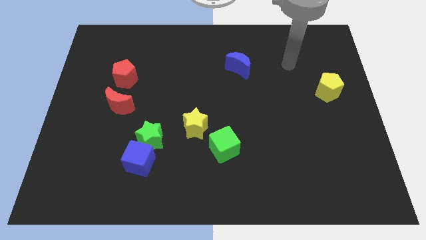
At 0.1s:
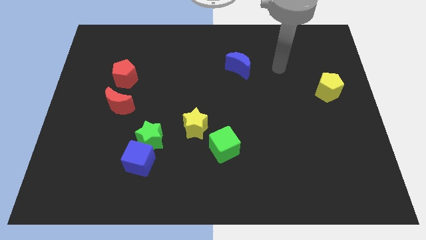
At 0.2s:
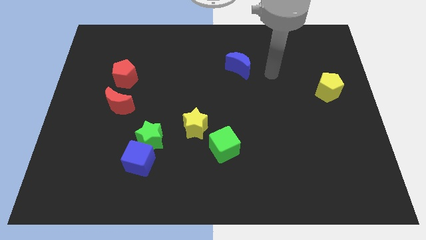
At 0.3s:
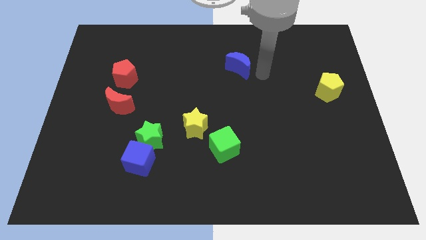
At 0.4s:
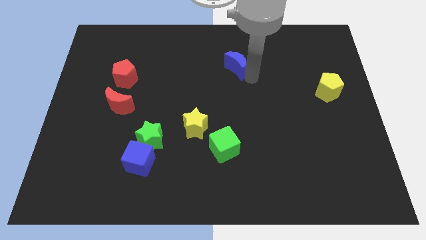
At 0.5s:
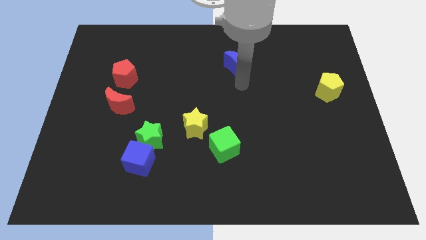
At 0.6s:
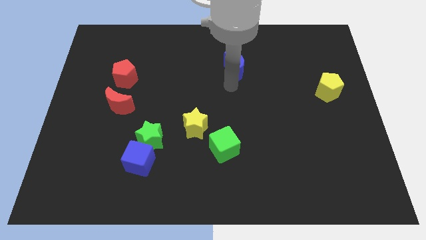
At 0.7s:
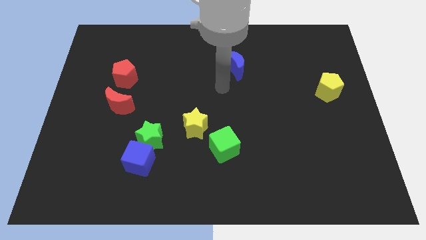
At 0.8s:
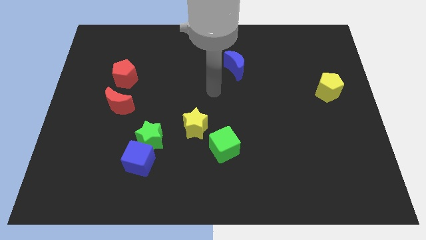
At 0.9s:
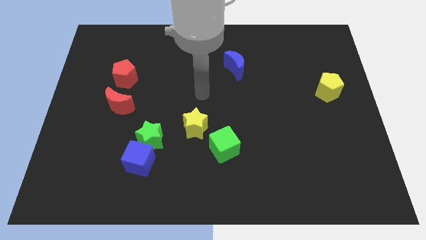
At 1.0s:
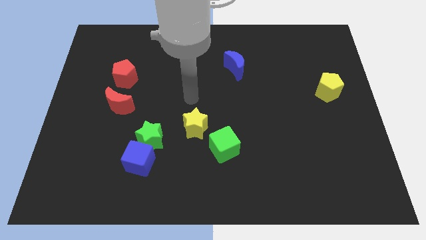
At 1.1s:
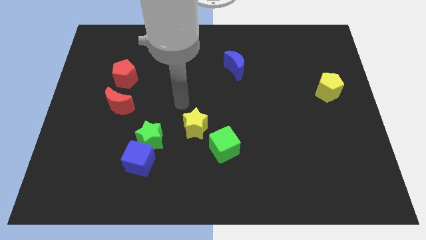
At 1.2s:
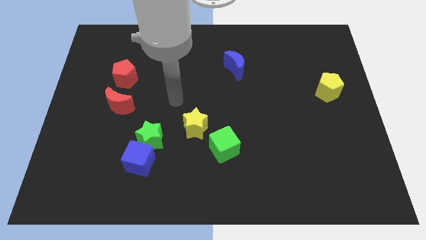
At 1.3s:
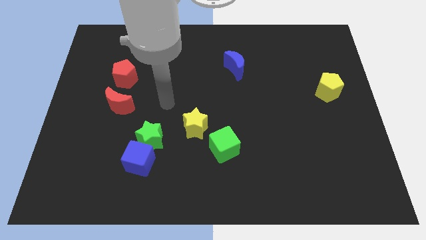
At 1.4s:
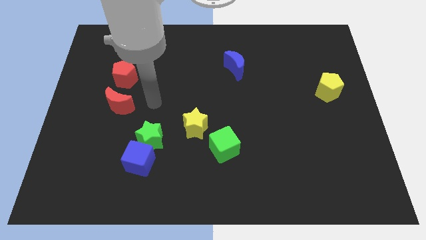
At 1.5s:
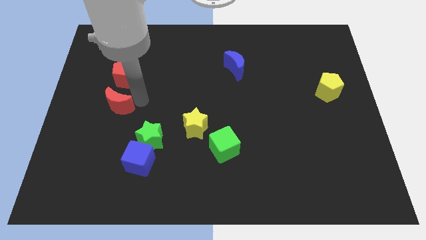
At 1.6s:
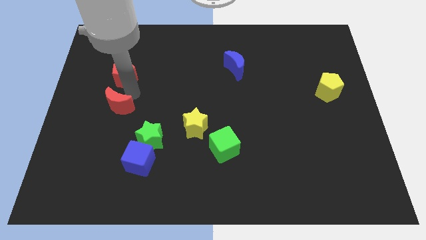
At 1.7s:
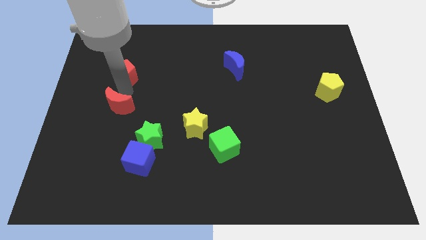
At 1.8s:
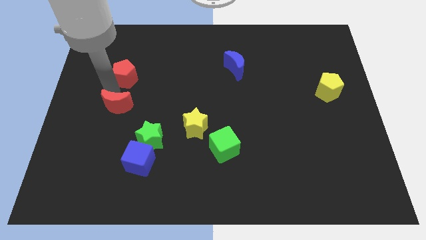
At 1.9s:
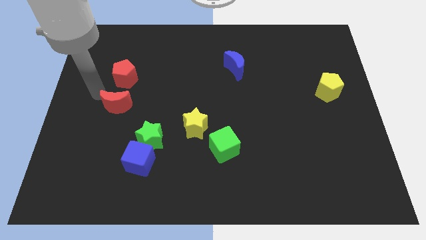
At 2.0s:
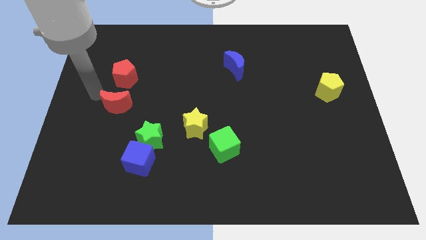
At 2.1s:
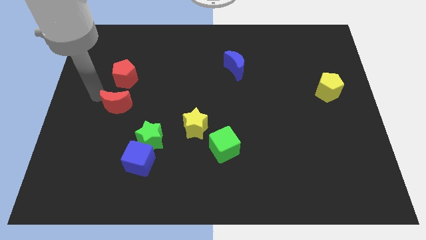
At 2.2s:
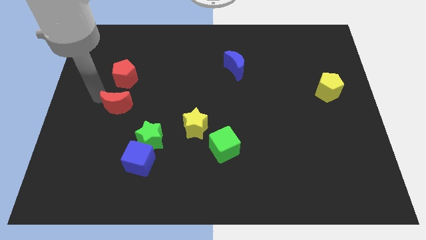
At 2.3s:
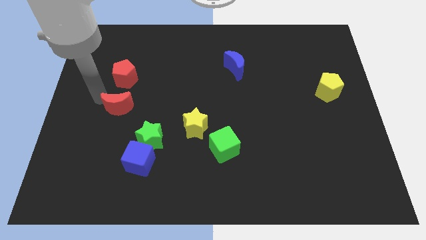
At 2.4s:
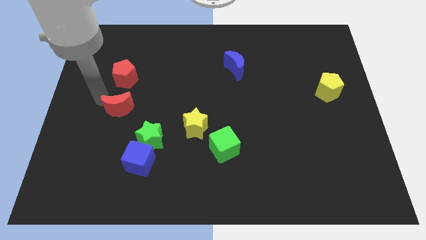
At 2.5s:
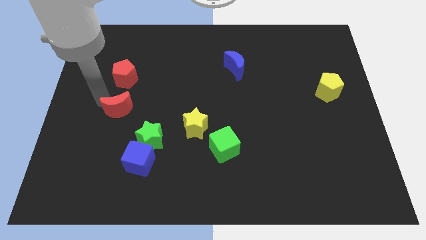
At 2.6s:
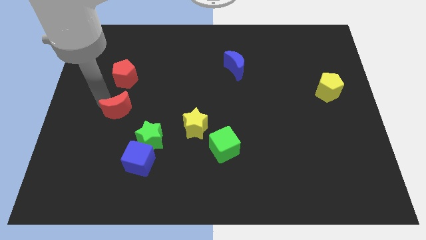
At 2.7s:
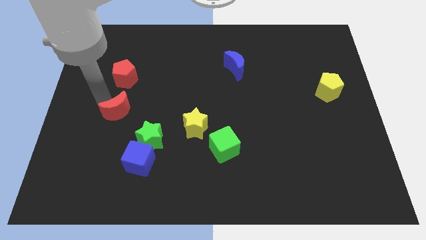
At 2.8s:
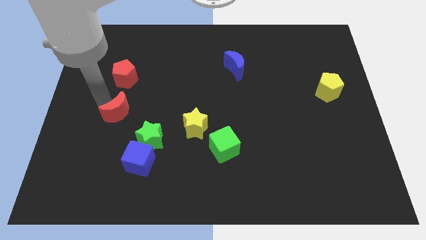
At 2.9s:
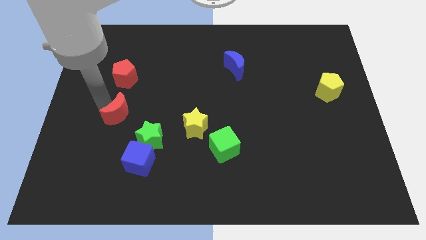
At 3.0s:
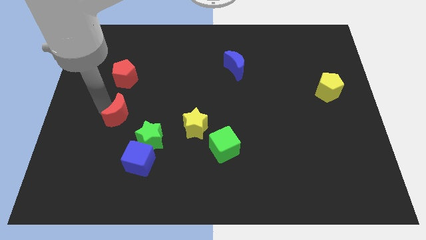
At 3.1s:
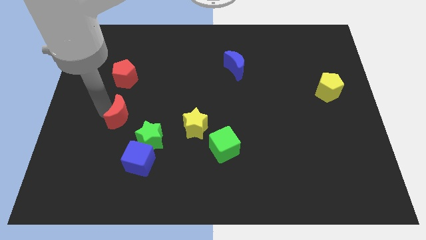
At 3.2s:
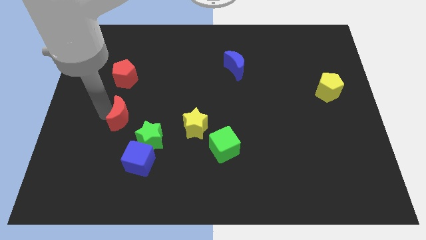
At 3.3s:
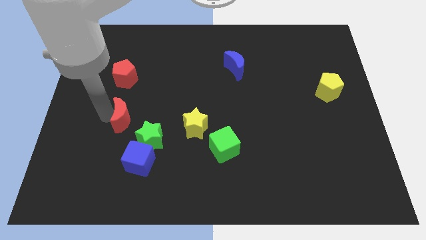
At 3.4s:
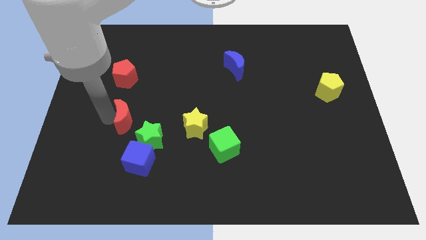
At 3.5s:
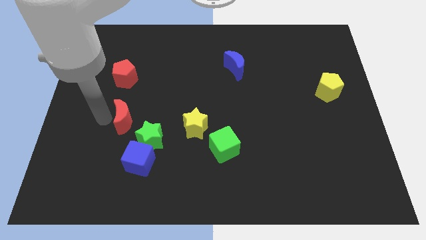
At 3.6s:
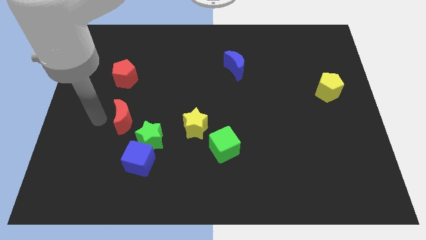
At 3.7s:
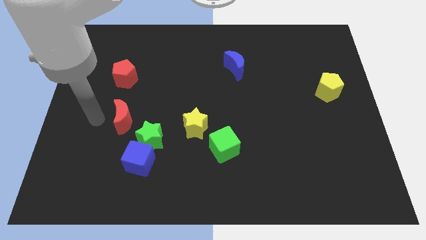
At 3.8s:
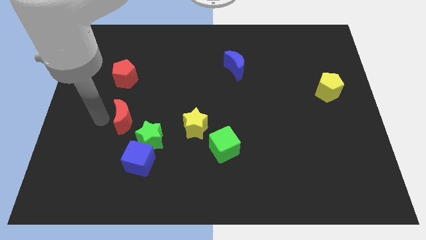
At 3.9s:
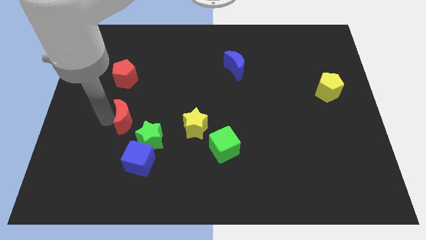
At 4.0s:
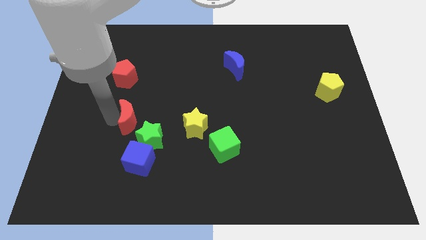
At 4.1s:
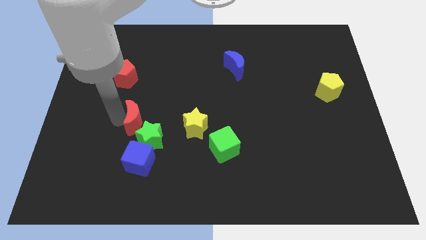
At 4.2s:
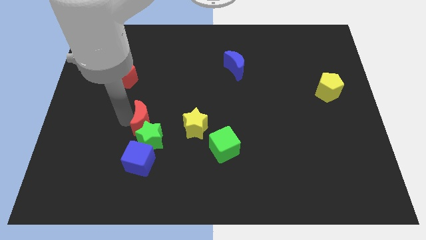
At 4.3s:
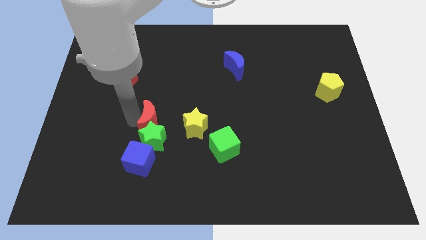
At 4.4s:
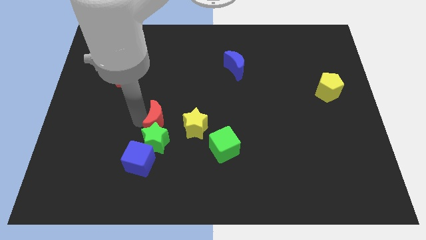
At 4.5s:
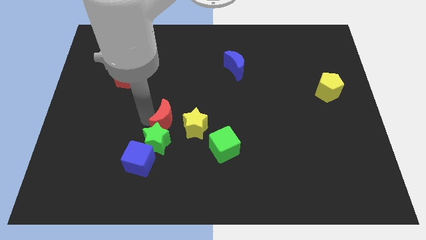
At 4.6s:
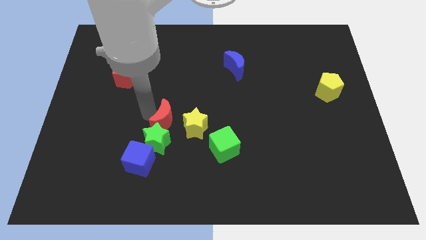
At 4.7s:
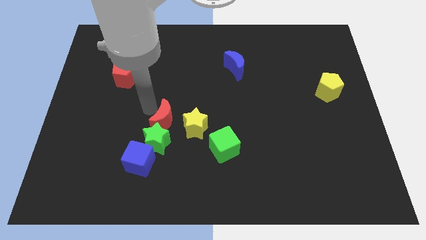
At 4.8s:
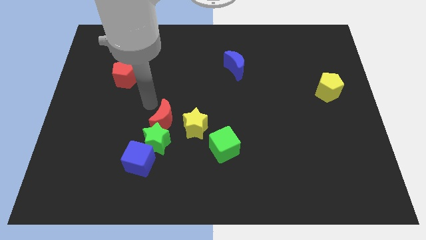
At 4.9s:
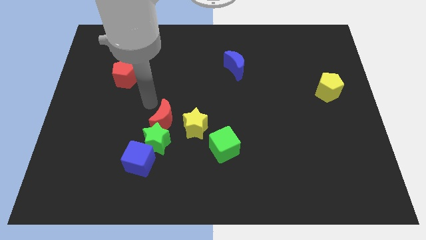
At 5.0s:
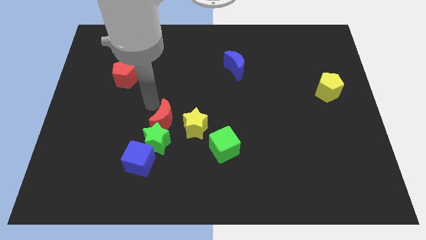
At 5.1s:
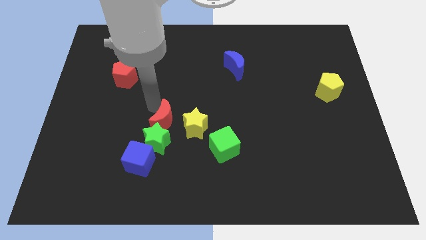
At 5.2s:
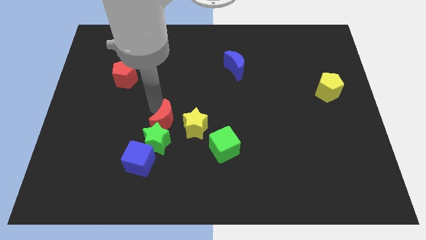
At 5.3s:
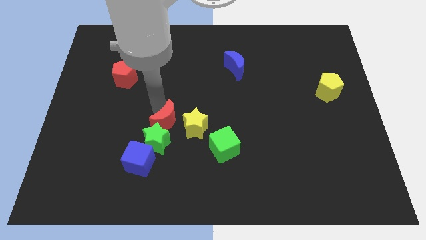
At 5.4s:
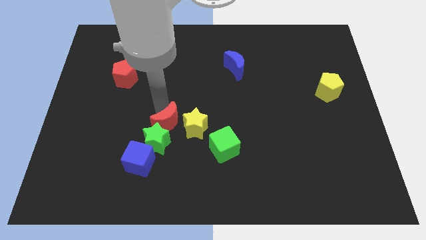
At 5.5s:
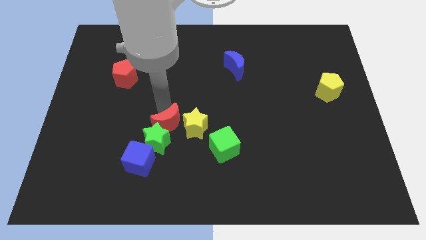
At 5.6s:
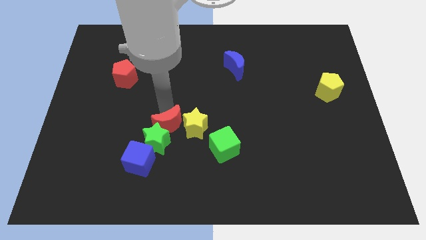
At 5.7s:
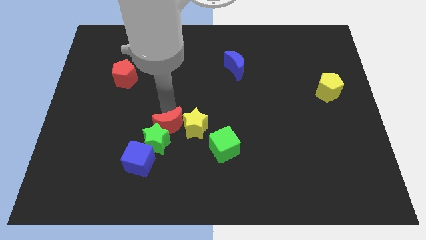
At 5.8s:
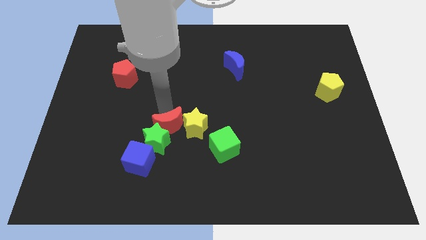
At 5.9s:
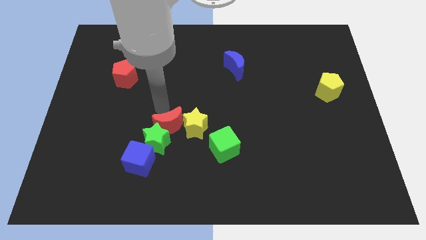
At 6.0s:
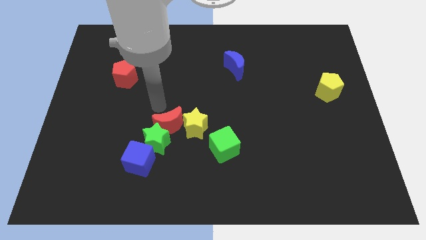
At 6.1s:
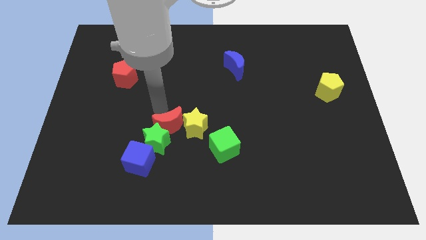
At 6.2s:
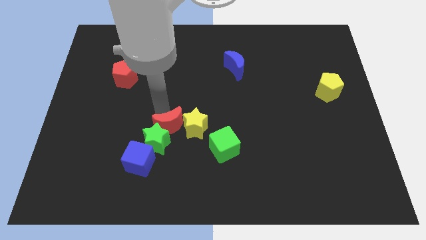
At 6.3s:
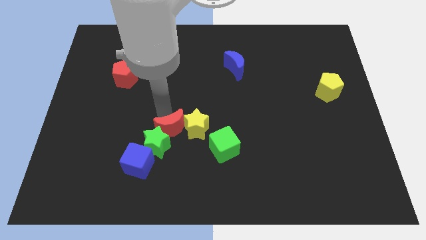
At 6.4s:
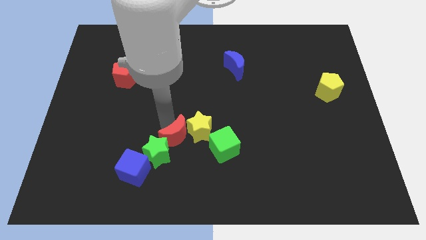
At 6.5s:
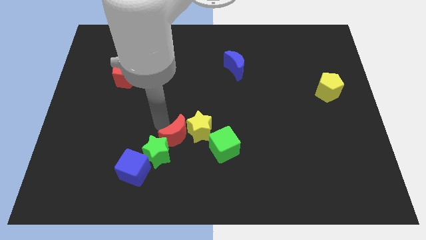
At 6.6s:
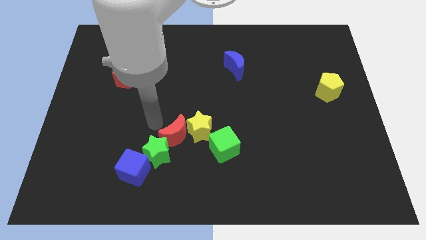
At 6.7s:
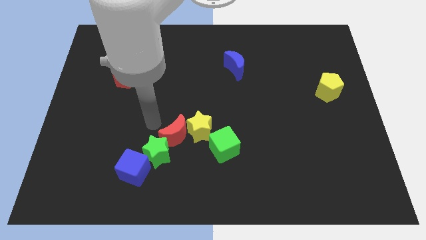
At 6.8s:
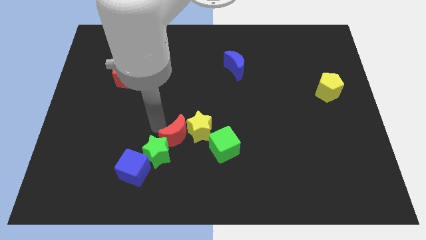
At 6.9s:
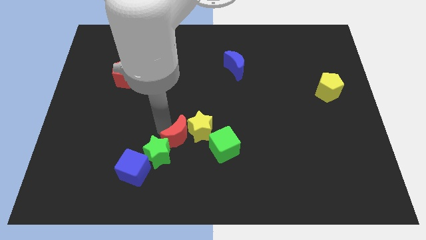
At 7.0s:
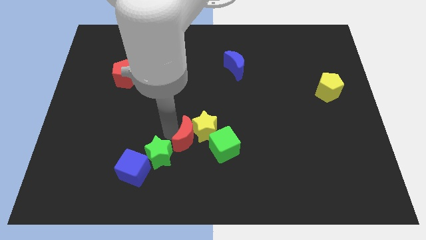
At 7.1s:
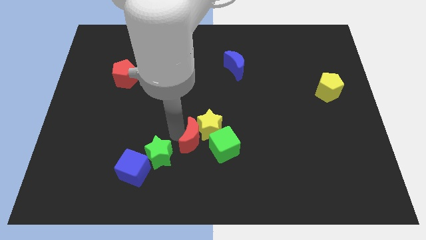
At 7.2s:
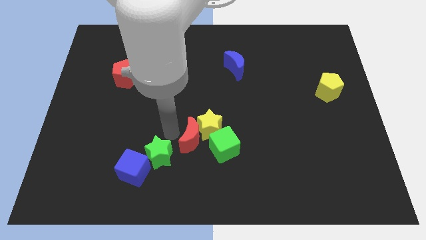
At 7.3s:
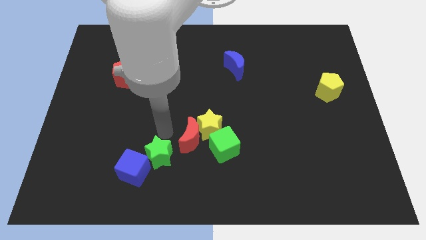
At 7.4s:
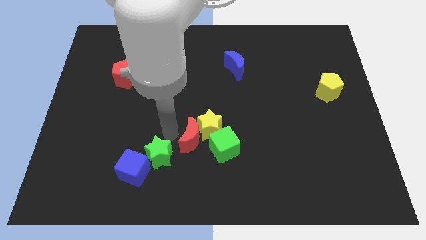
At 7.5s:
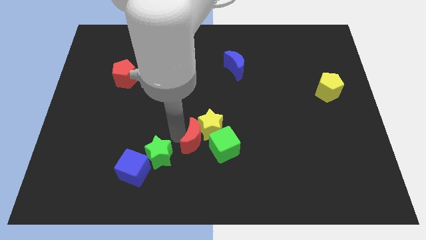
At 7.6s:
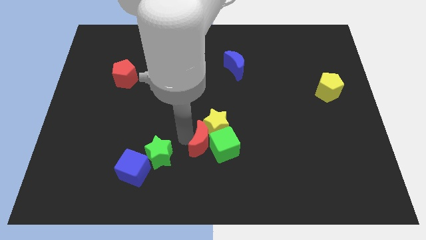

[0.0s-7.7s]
put the red moon to the green cube
